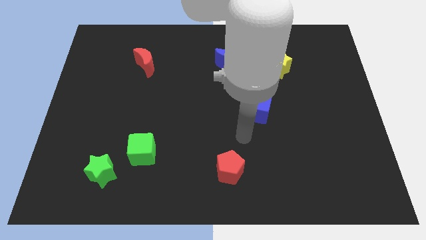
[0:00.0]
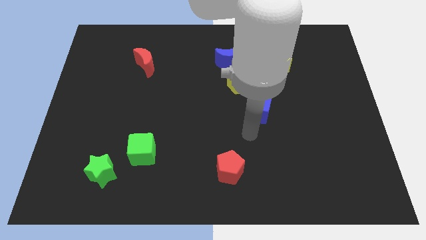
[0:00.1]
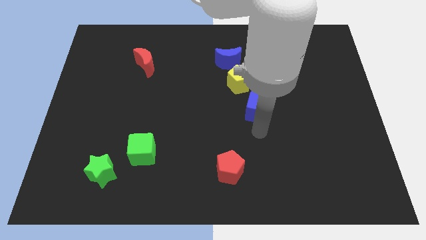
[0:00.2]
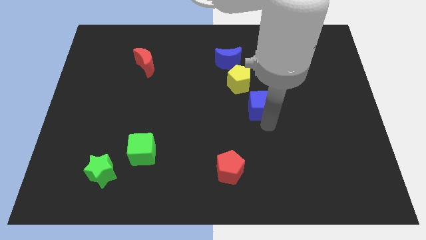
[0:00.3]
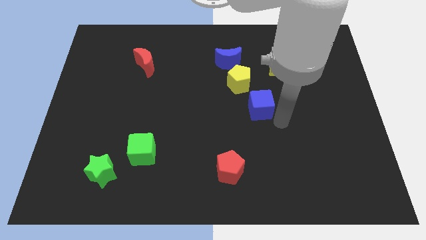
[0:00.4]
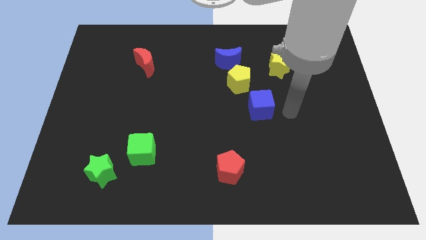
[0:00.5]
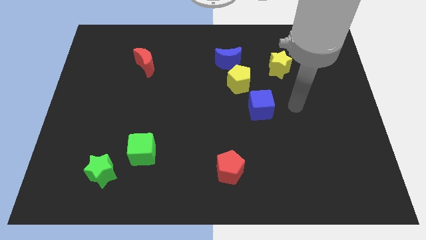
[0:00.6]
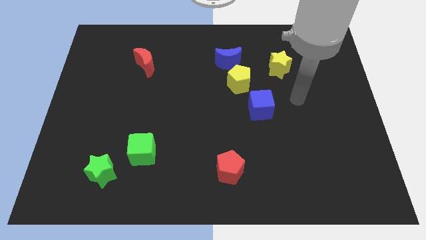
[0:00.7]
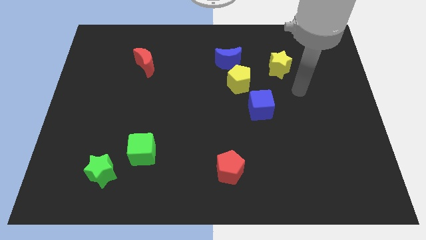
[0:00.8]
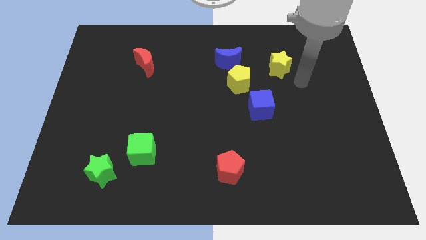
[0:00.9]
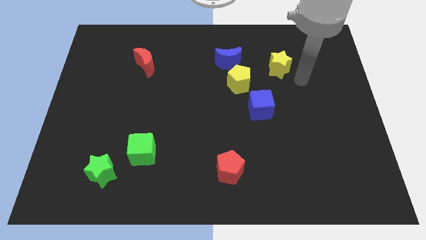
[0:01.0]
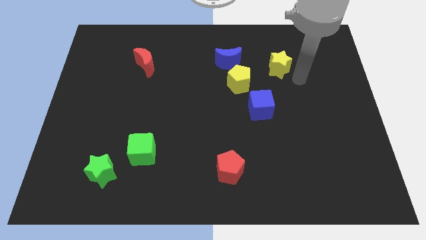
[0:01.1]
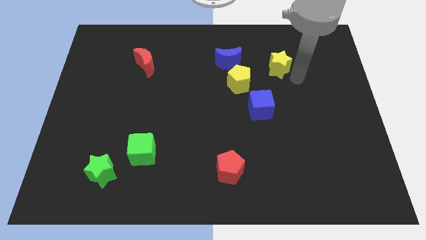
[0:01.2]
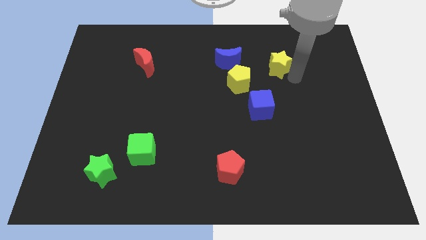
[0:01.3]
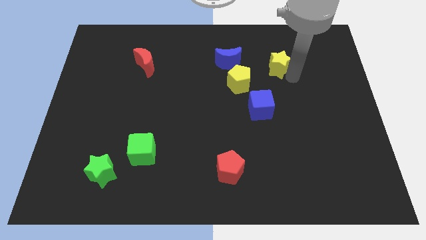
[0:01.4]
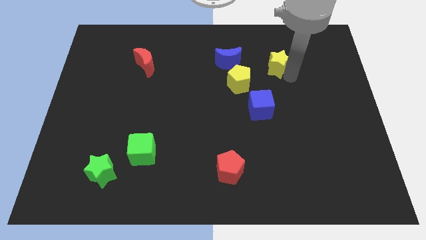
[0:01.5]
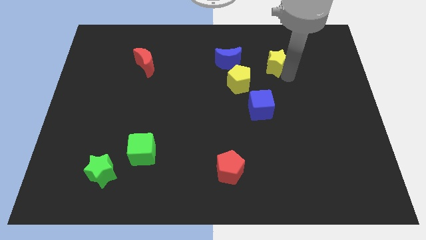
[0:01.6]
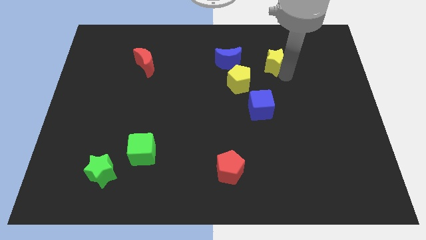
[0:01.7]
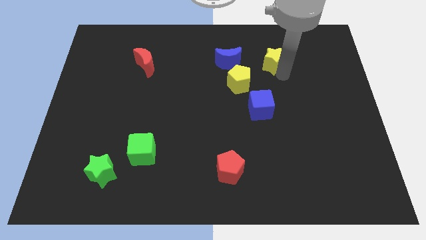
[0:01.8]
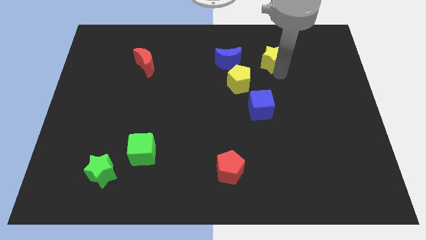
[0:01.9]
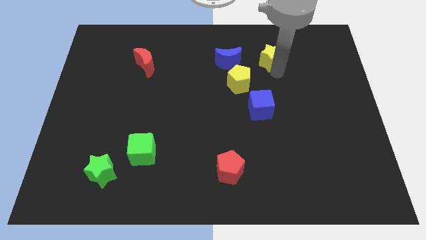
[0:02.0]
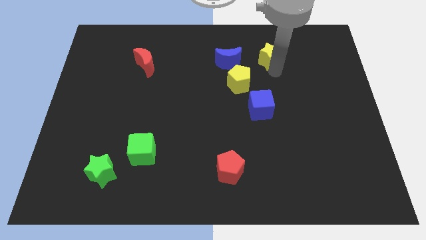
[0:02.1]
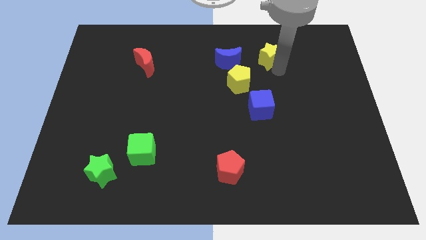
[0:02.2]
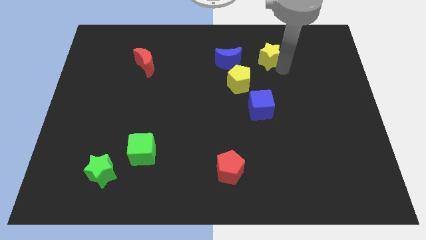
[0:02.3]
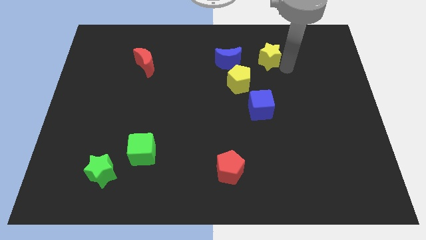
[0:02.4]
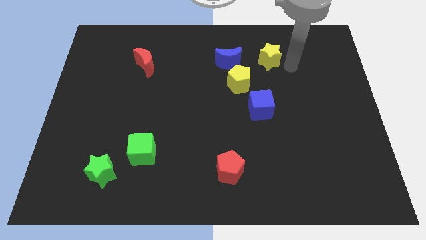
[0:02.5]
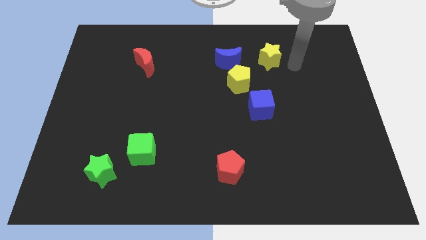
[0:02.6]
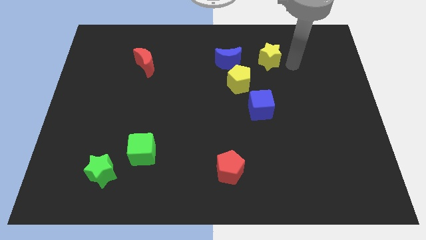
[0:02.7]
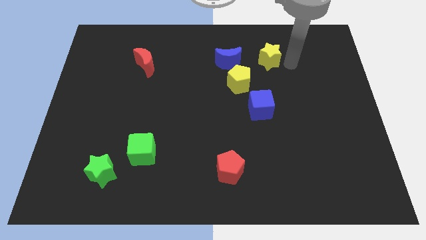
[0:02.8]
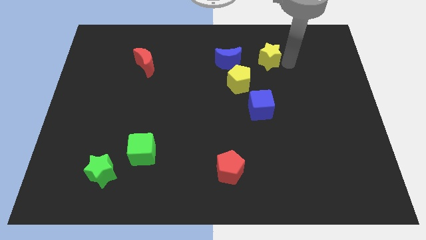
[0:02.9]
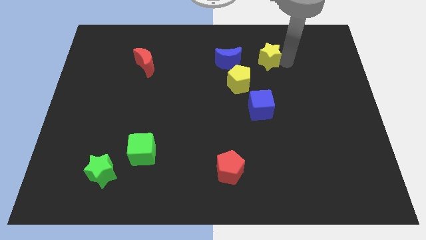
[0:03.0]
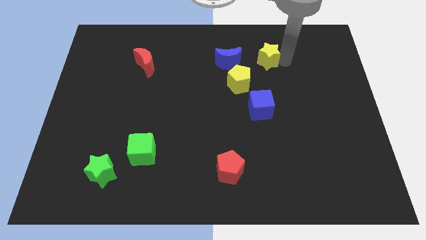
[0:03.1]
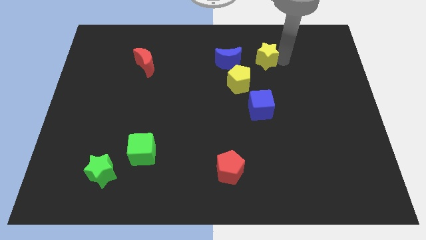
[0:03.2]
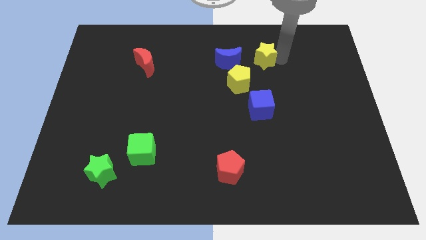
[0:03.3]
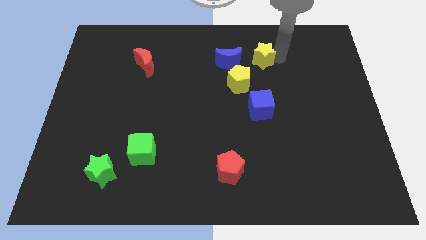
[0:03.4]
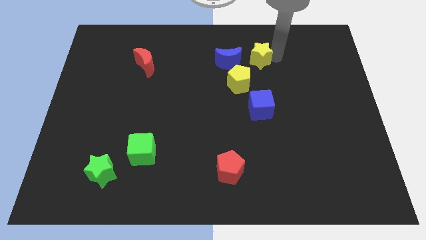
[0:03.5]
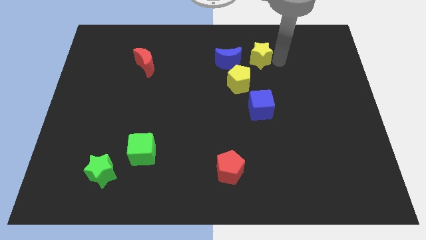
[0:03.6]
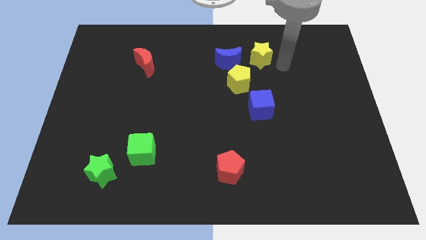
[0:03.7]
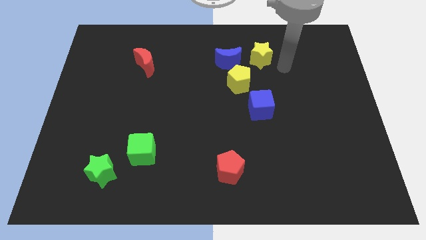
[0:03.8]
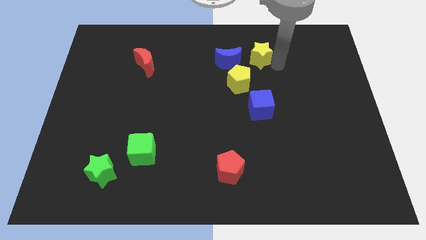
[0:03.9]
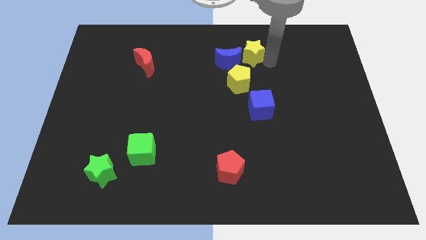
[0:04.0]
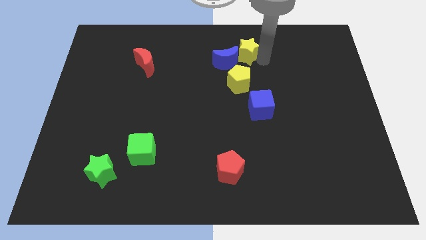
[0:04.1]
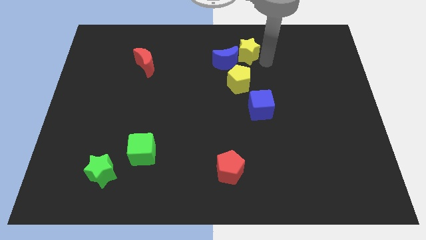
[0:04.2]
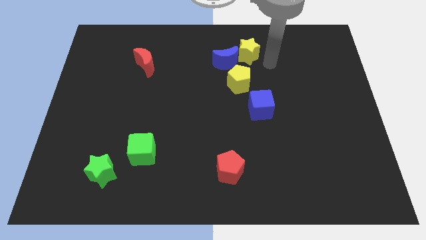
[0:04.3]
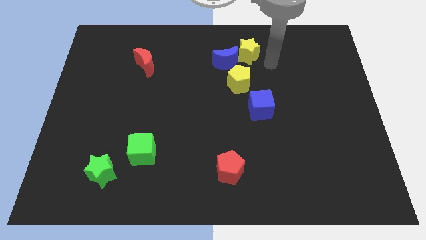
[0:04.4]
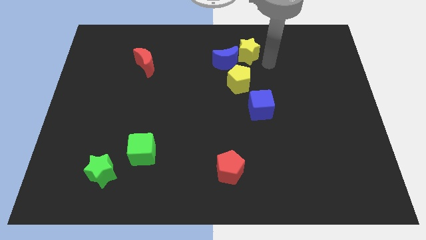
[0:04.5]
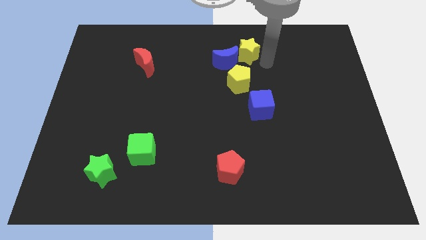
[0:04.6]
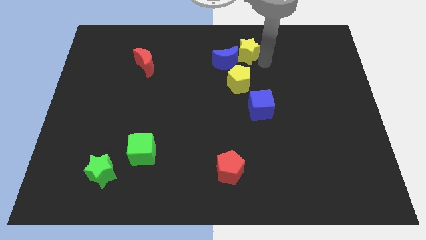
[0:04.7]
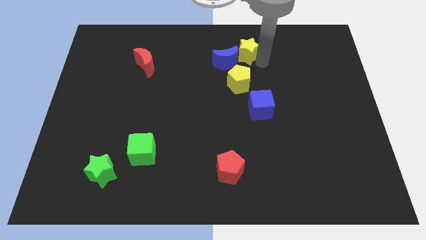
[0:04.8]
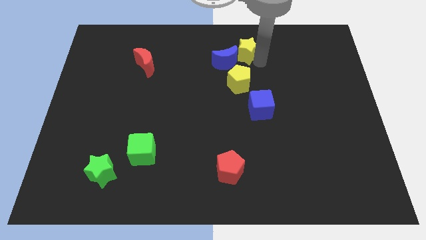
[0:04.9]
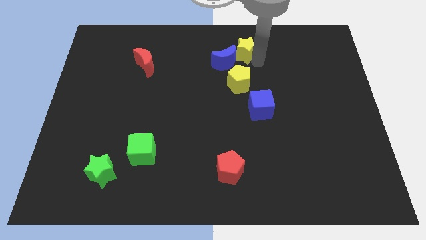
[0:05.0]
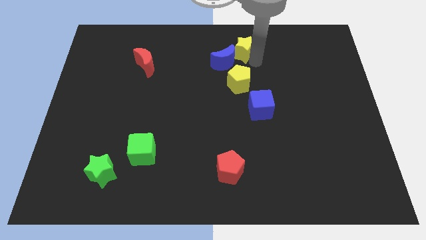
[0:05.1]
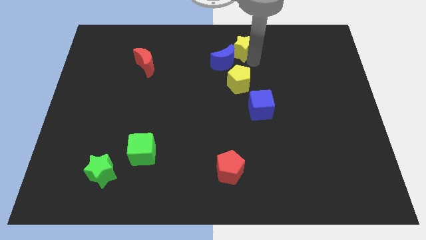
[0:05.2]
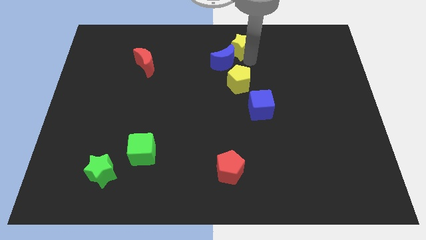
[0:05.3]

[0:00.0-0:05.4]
slide the yellow star to the towards your base
